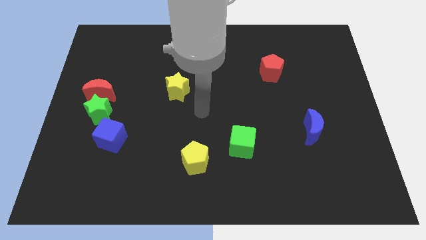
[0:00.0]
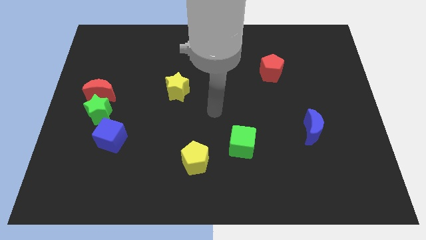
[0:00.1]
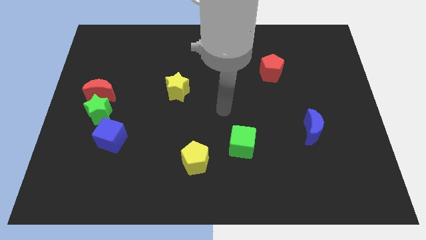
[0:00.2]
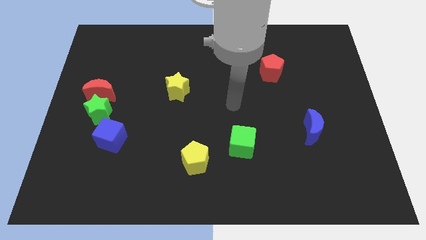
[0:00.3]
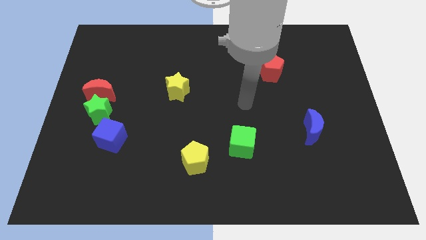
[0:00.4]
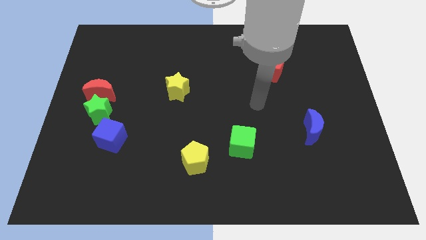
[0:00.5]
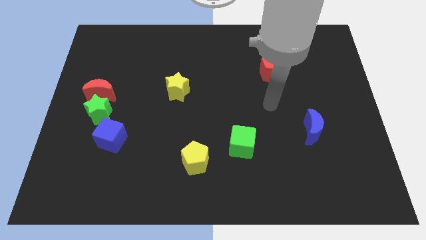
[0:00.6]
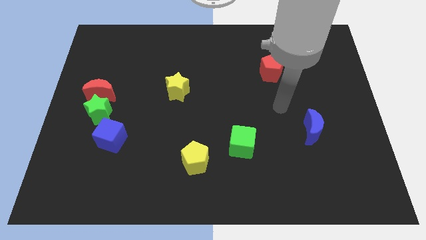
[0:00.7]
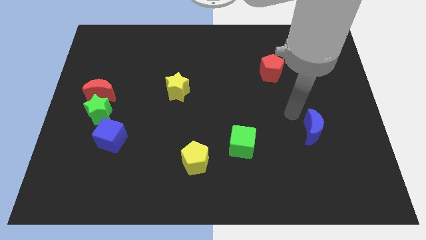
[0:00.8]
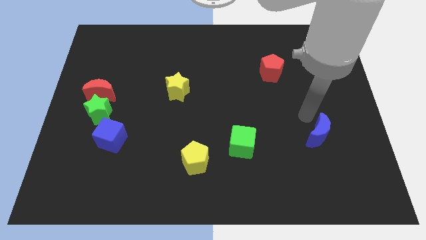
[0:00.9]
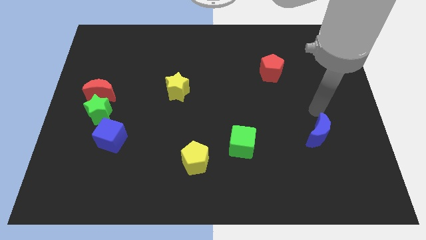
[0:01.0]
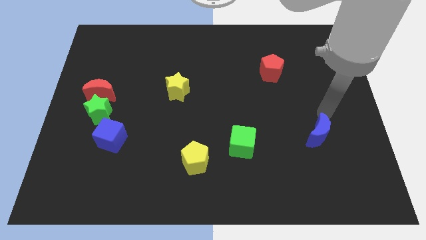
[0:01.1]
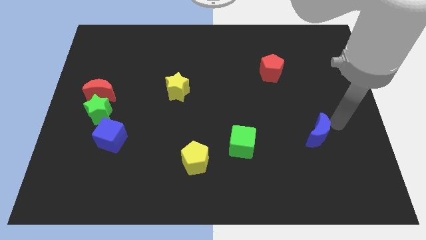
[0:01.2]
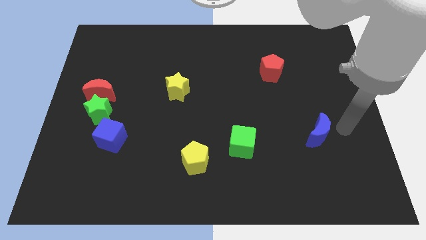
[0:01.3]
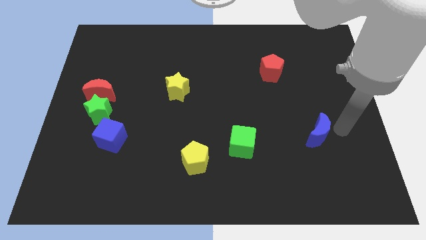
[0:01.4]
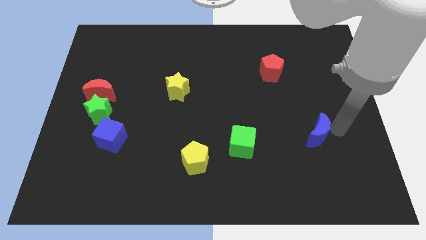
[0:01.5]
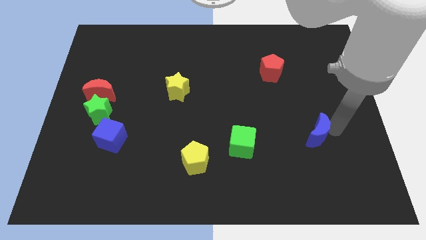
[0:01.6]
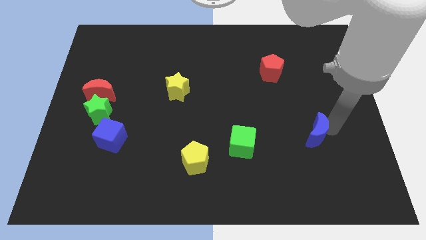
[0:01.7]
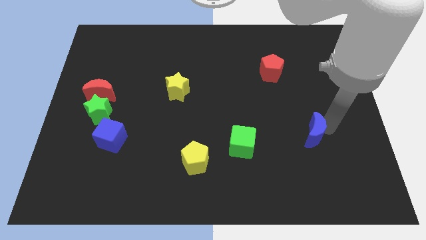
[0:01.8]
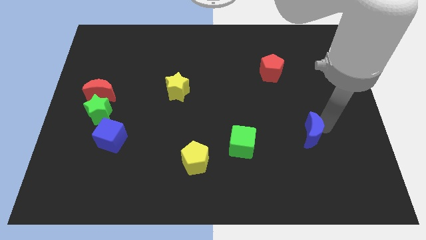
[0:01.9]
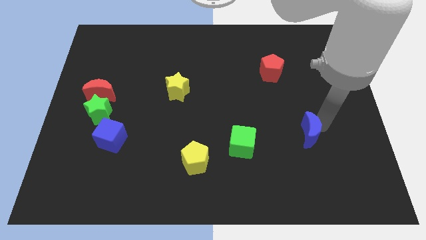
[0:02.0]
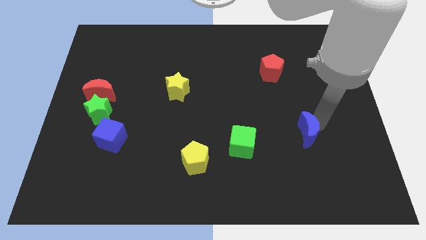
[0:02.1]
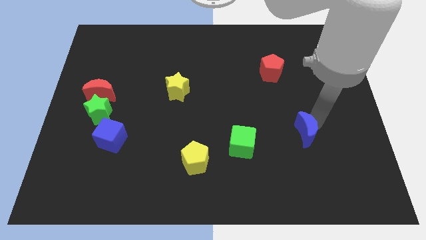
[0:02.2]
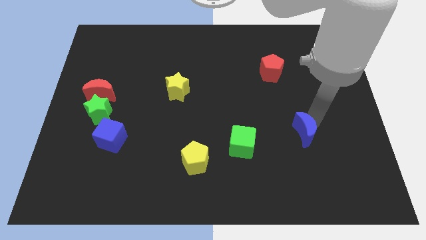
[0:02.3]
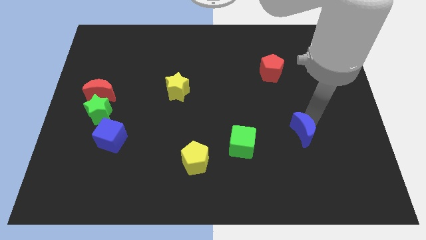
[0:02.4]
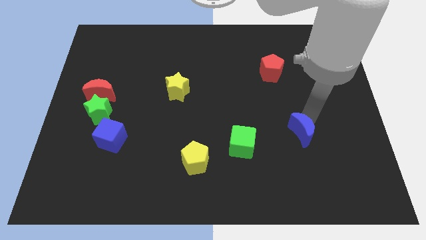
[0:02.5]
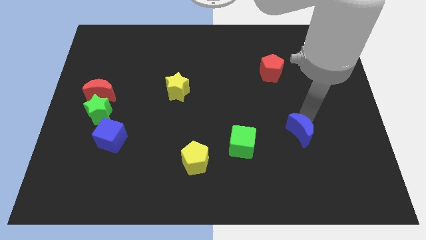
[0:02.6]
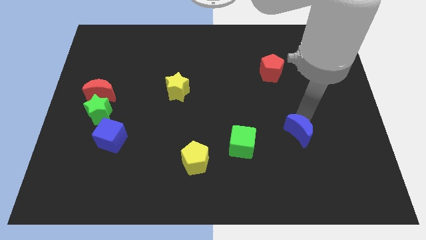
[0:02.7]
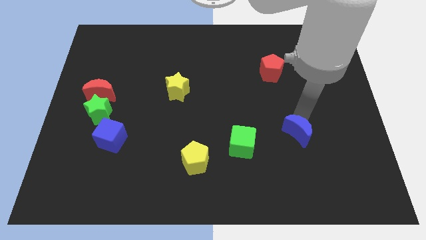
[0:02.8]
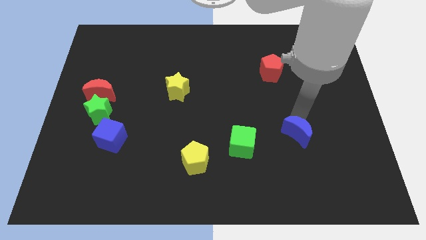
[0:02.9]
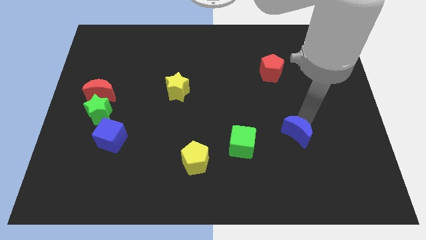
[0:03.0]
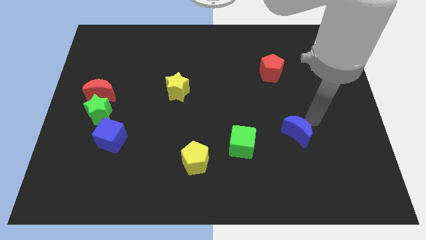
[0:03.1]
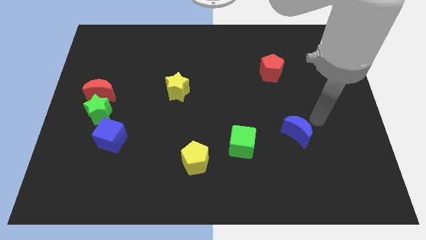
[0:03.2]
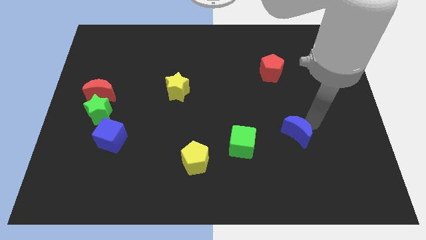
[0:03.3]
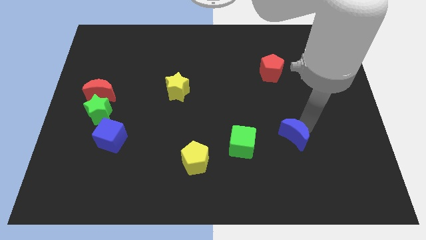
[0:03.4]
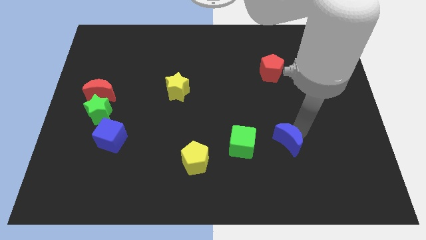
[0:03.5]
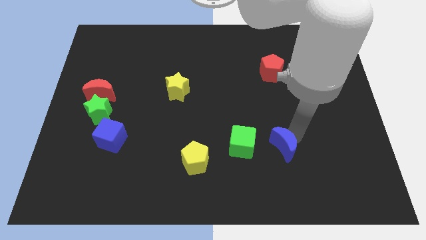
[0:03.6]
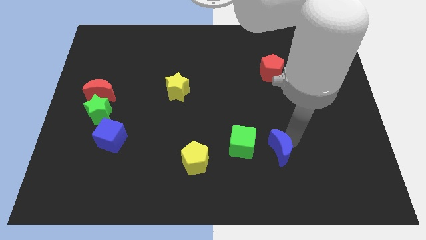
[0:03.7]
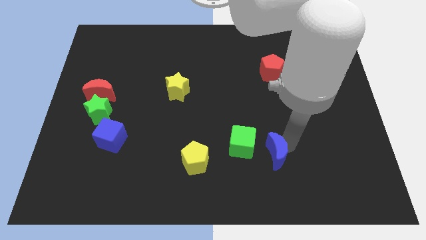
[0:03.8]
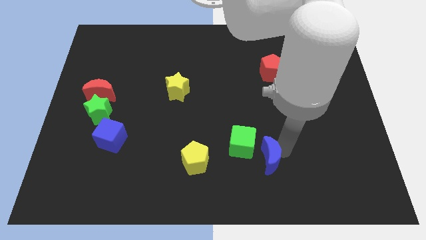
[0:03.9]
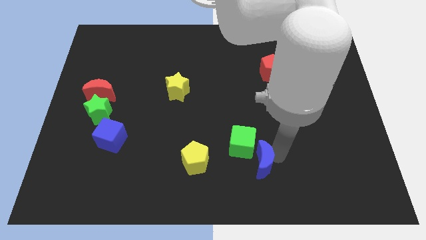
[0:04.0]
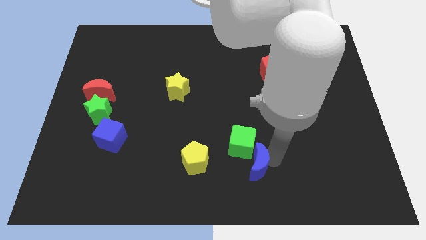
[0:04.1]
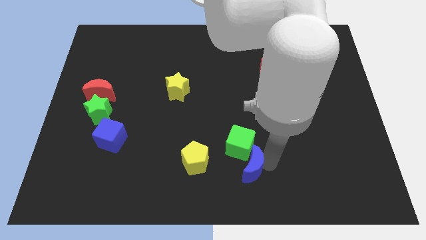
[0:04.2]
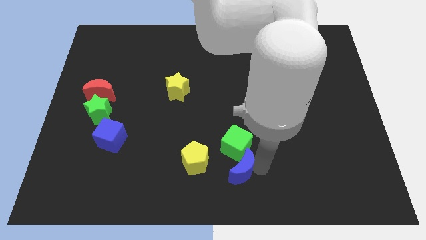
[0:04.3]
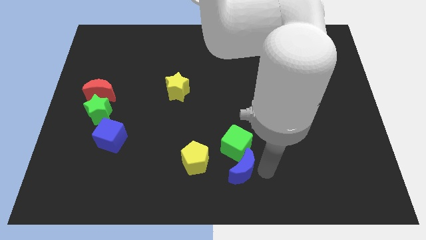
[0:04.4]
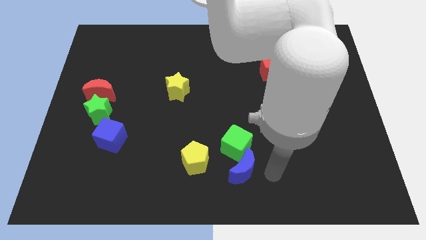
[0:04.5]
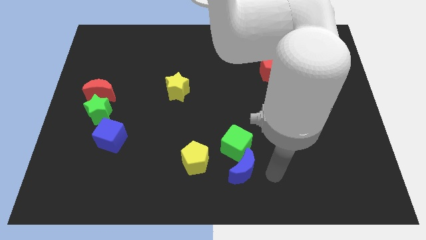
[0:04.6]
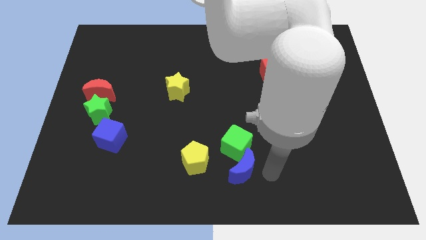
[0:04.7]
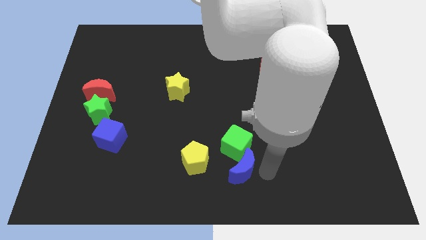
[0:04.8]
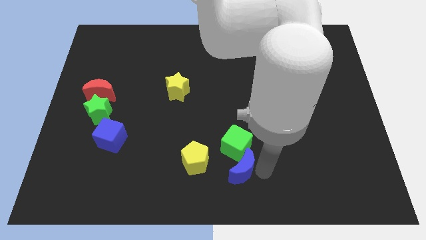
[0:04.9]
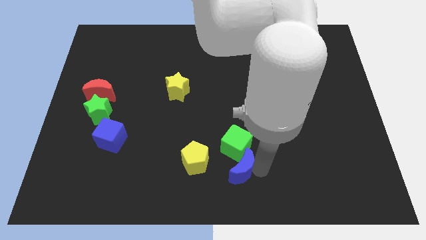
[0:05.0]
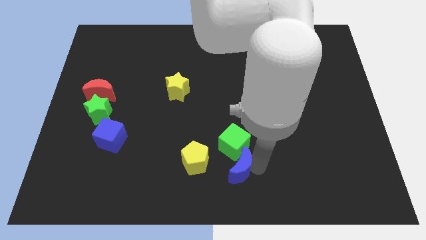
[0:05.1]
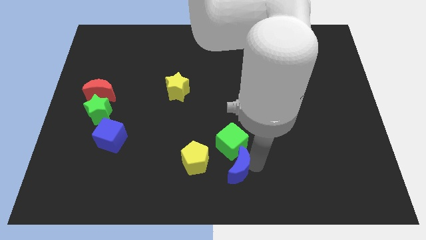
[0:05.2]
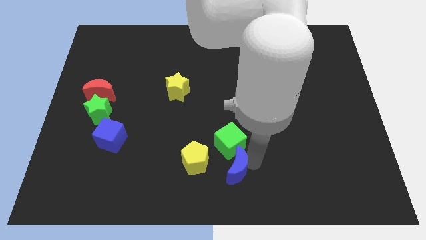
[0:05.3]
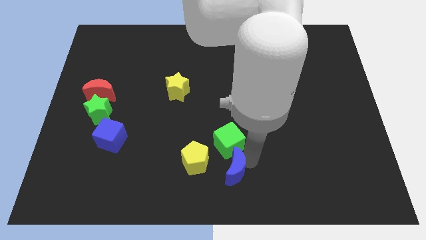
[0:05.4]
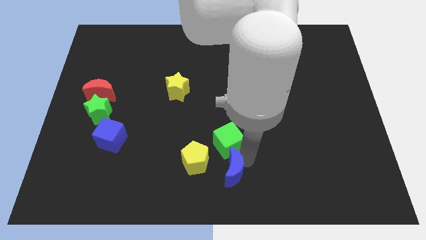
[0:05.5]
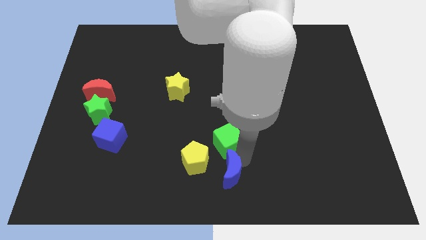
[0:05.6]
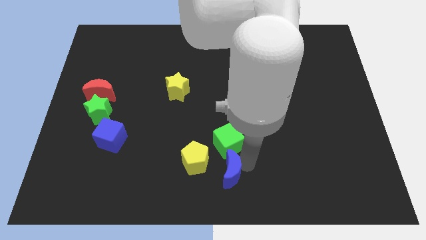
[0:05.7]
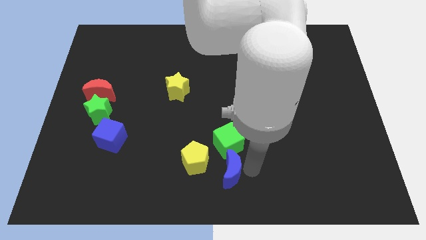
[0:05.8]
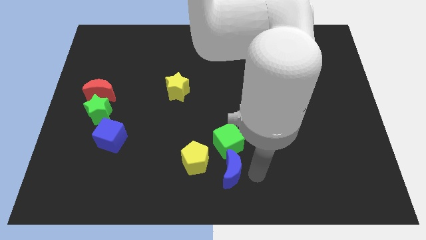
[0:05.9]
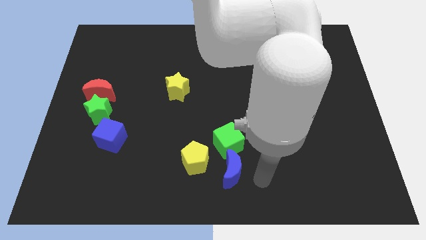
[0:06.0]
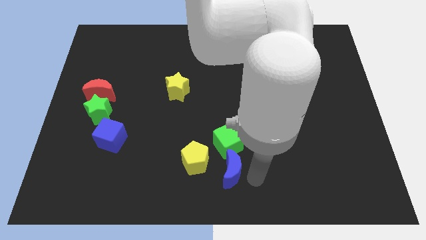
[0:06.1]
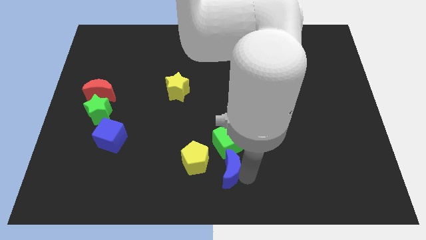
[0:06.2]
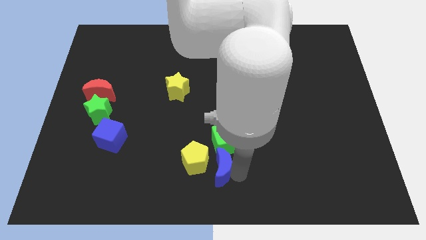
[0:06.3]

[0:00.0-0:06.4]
move the blue moon to the bottom left of the green cube

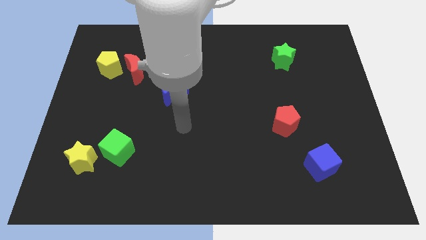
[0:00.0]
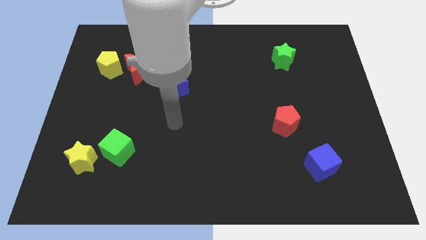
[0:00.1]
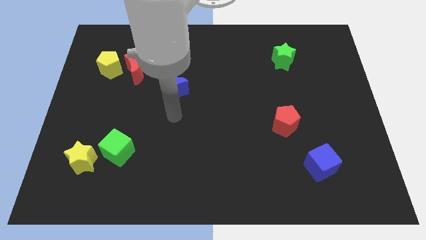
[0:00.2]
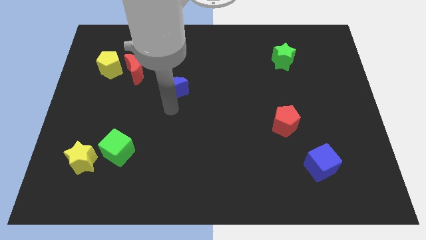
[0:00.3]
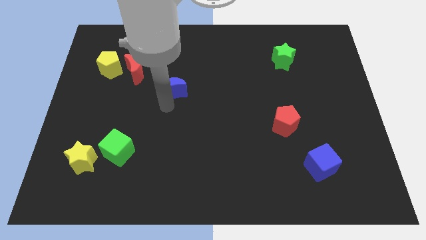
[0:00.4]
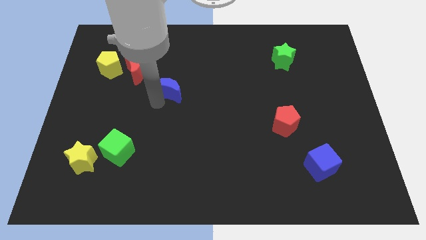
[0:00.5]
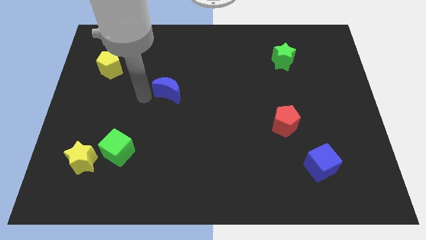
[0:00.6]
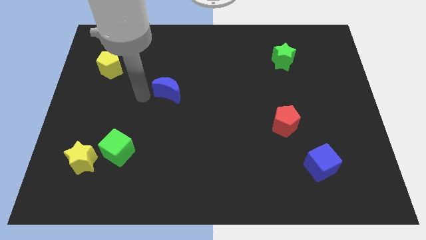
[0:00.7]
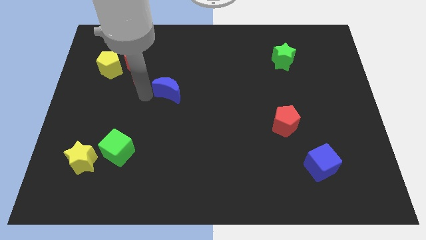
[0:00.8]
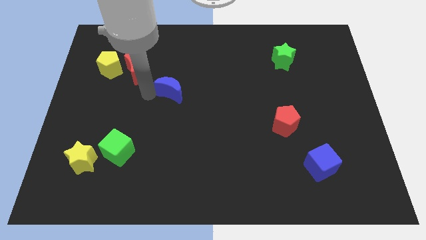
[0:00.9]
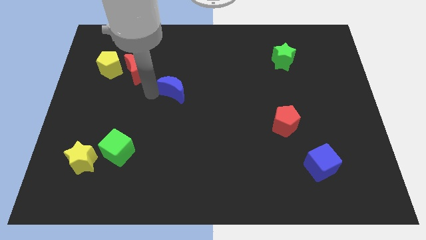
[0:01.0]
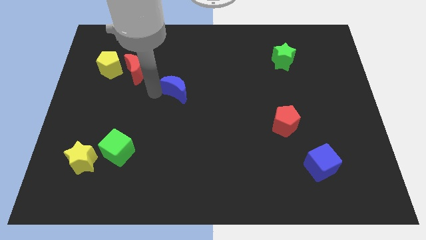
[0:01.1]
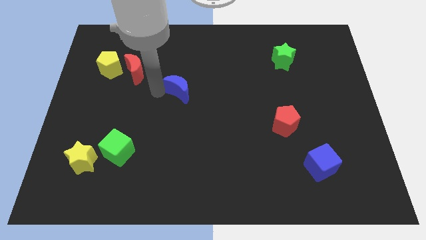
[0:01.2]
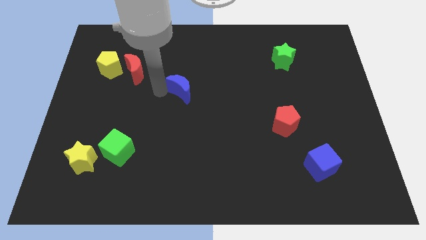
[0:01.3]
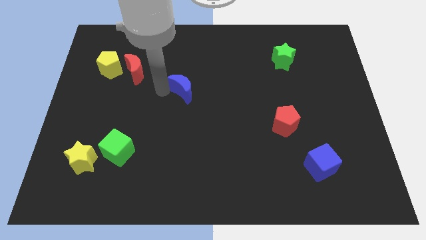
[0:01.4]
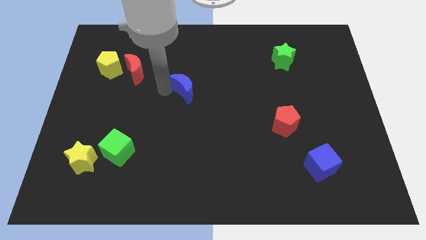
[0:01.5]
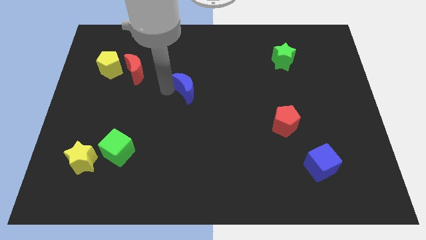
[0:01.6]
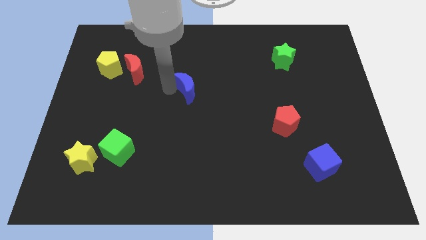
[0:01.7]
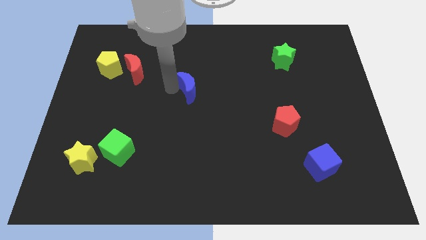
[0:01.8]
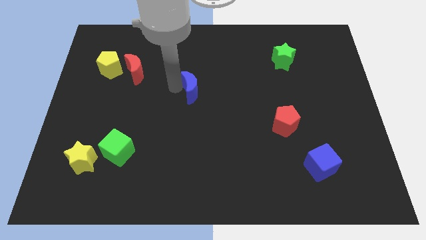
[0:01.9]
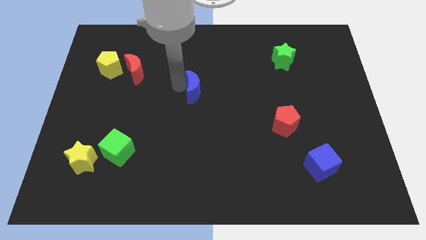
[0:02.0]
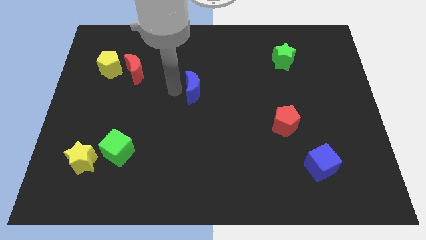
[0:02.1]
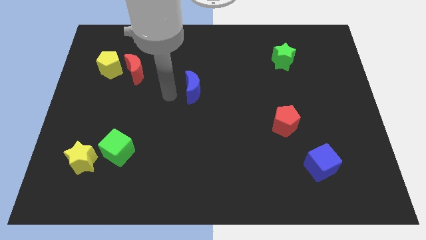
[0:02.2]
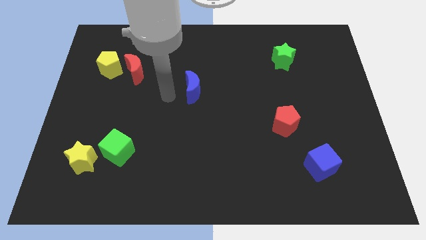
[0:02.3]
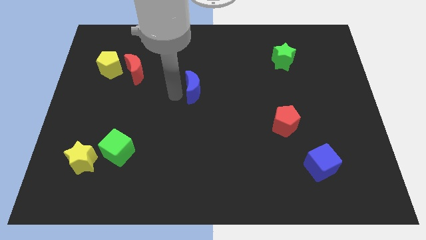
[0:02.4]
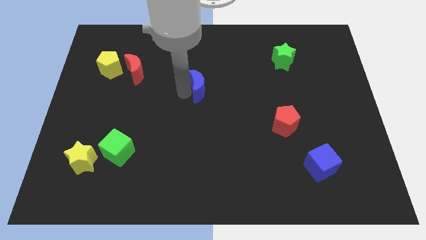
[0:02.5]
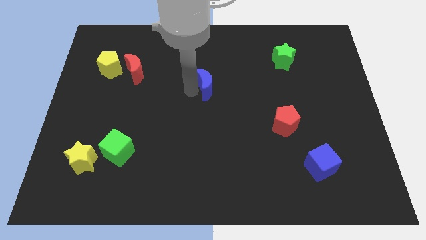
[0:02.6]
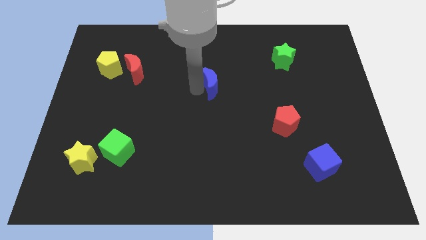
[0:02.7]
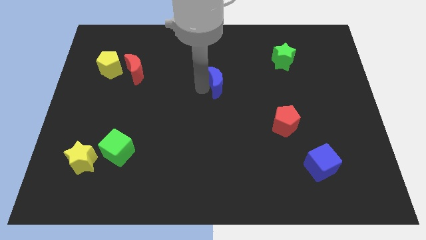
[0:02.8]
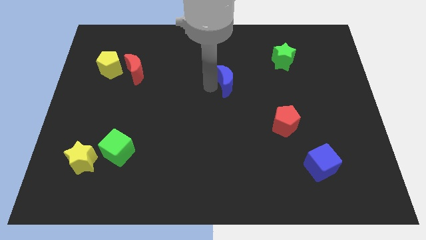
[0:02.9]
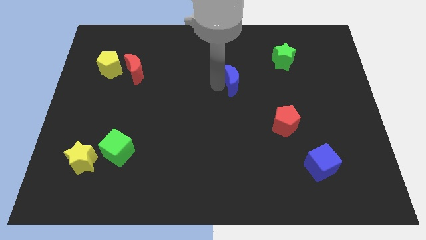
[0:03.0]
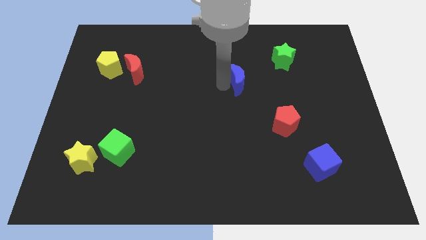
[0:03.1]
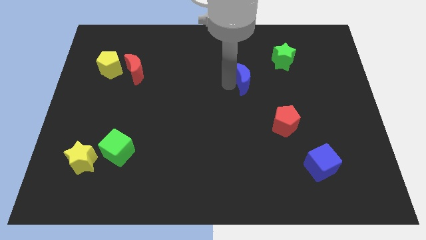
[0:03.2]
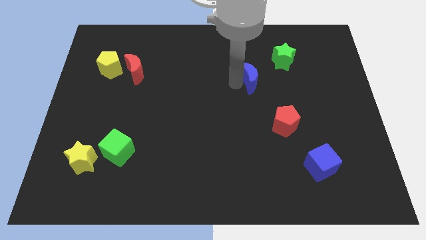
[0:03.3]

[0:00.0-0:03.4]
push the blue moon to the bottom left side of the green star
